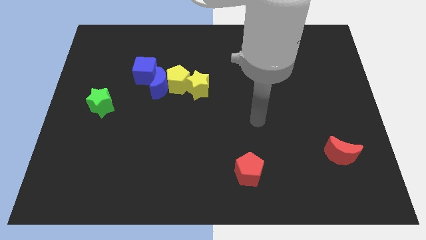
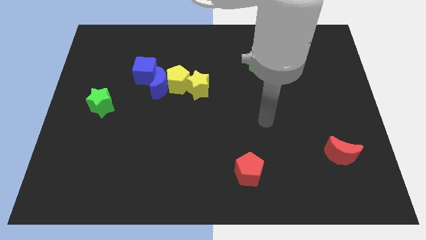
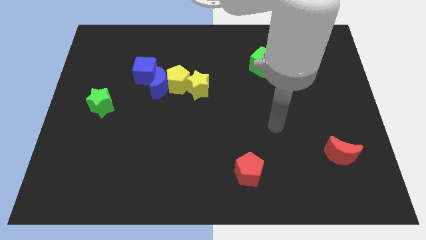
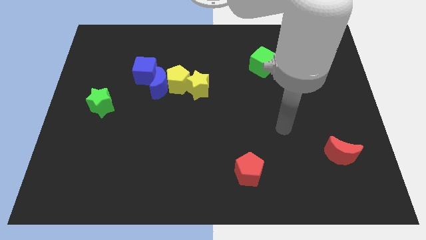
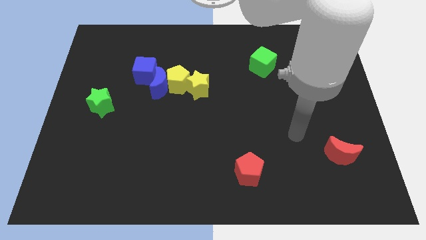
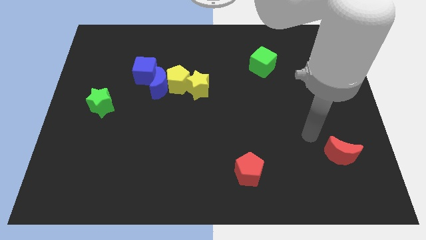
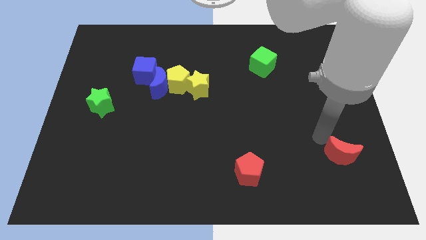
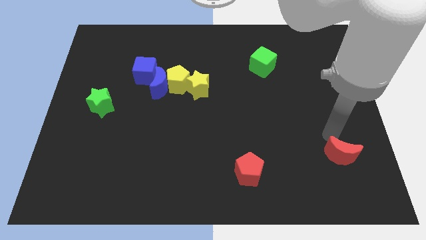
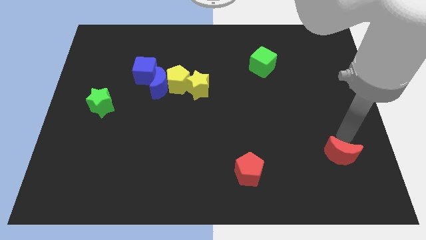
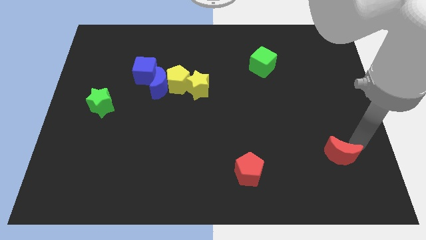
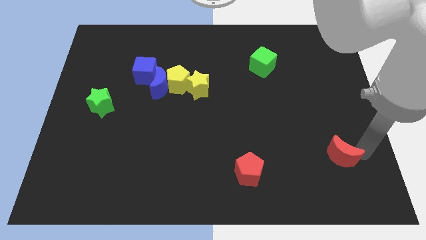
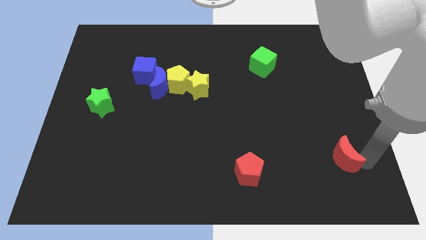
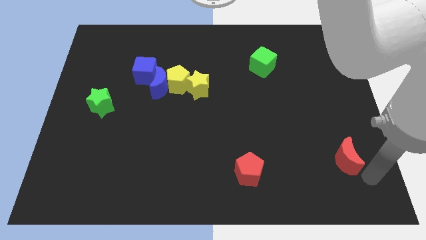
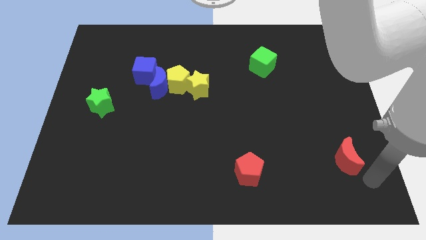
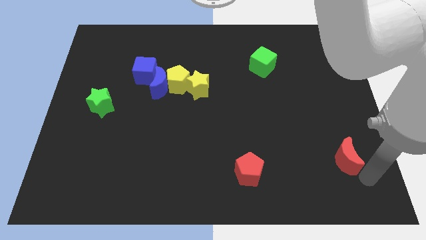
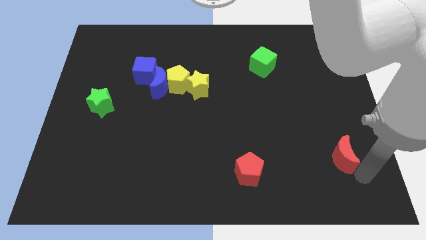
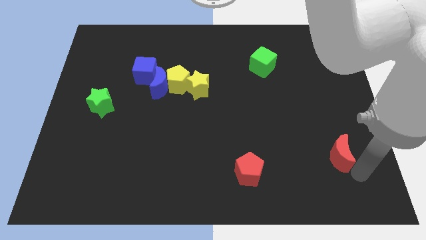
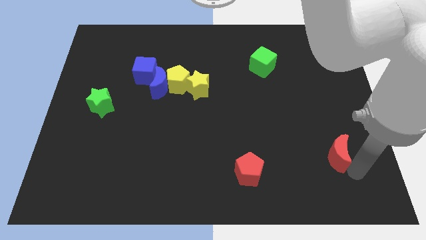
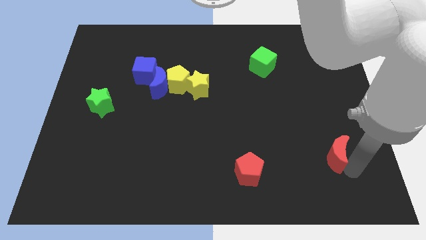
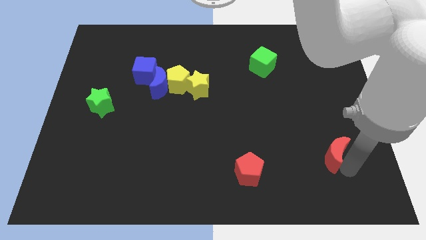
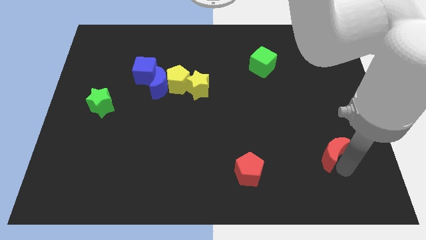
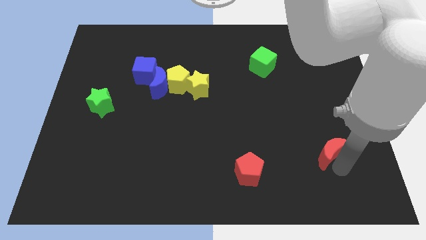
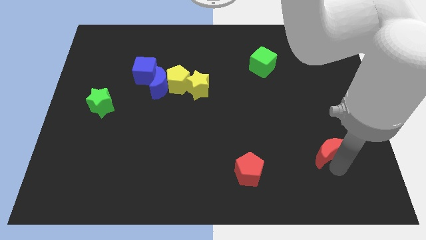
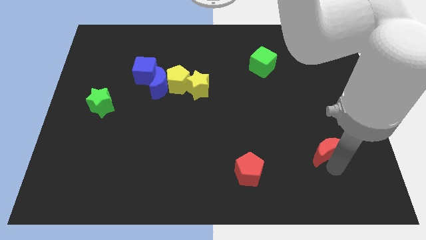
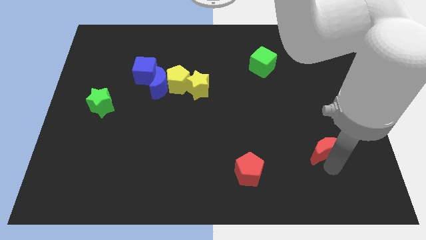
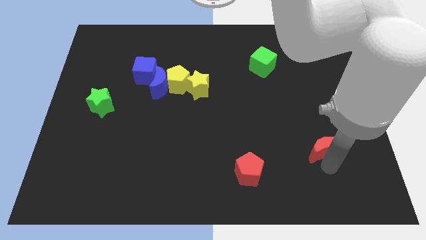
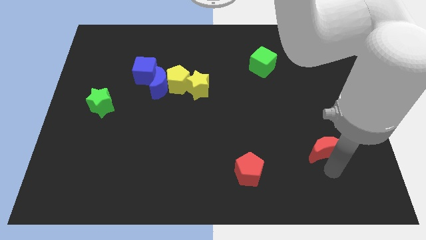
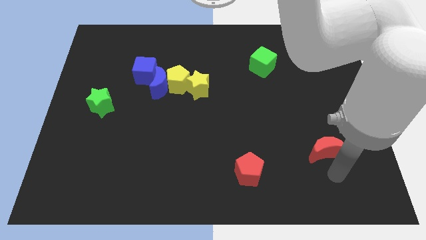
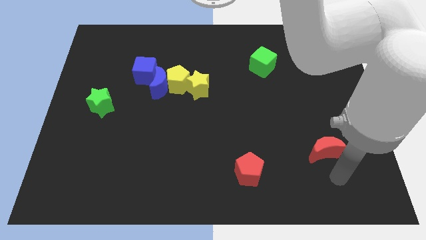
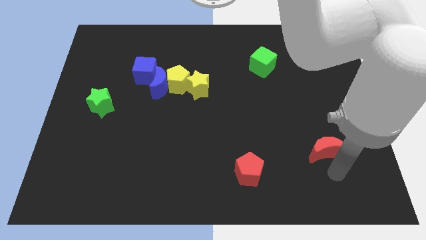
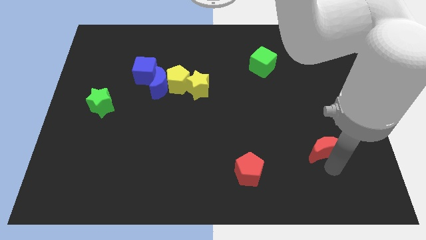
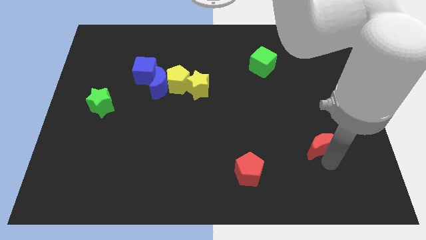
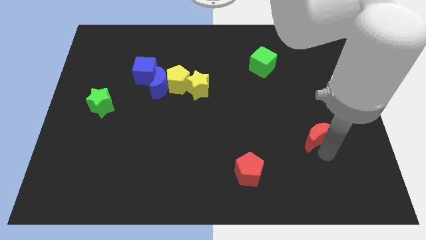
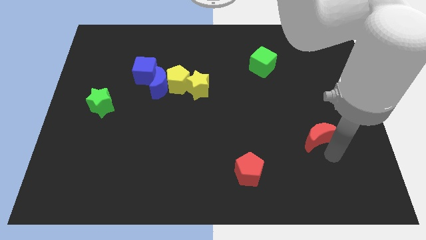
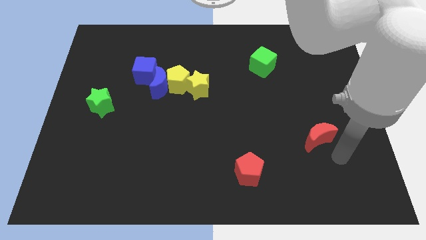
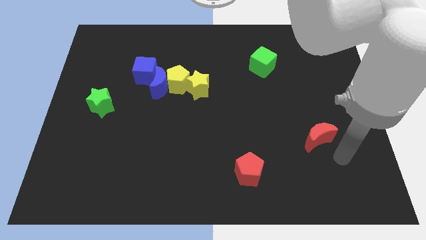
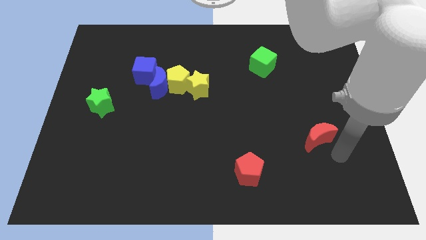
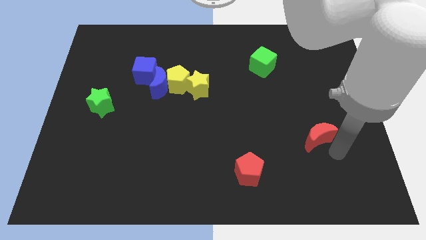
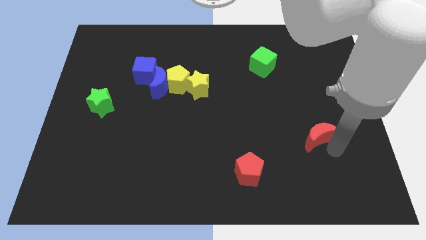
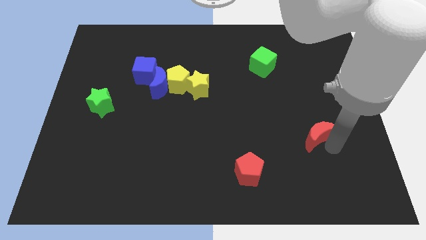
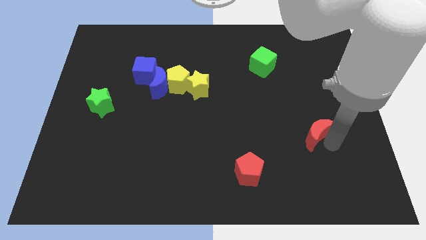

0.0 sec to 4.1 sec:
slide the red moon up and to the left diagonally slightly

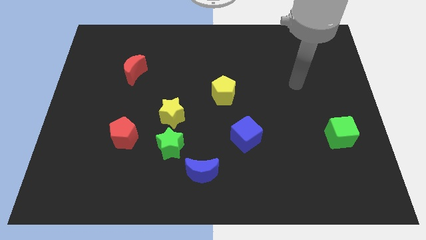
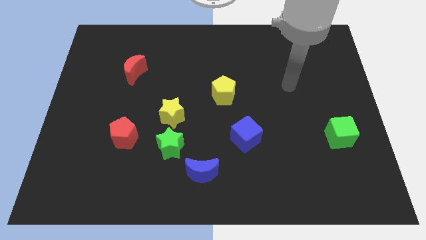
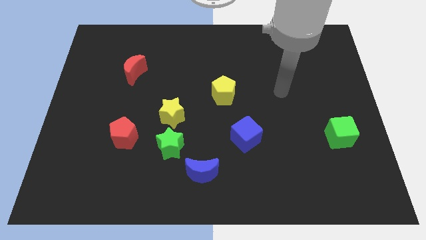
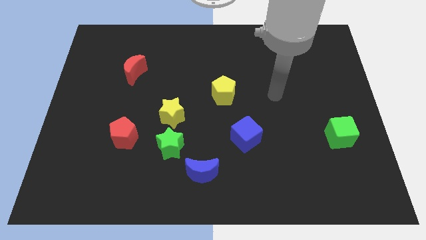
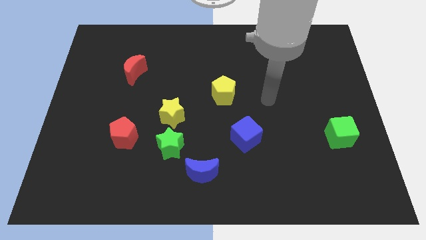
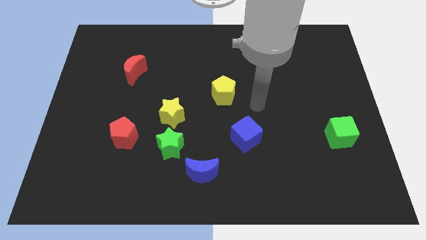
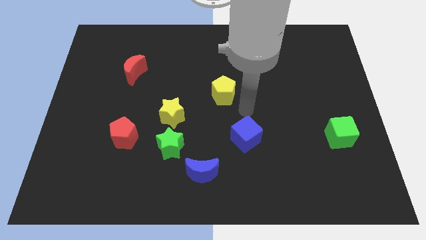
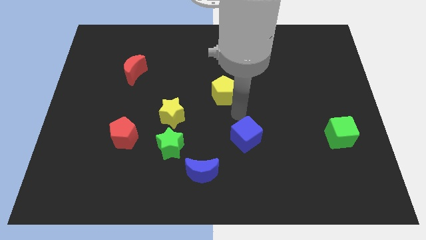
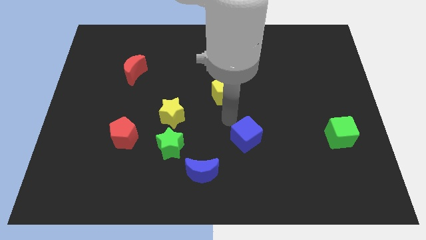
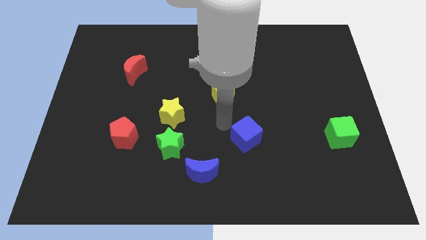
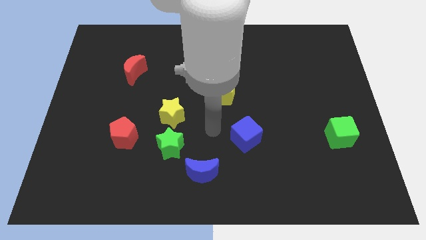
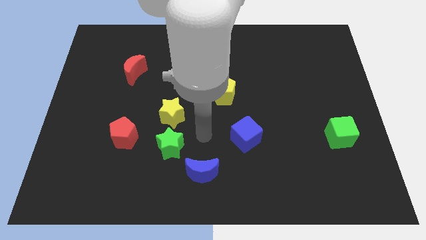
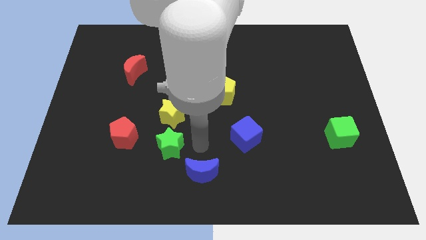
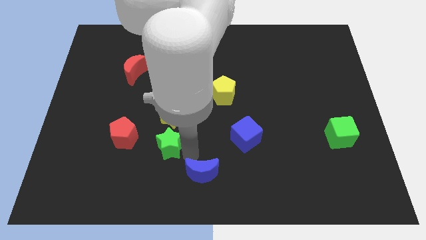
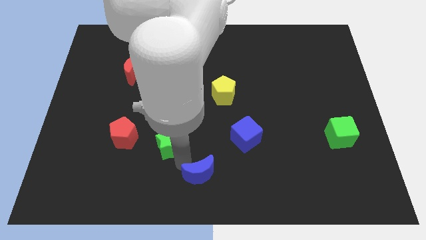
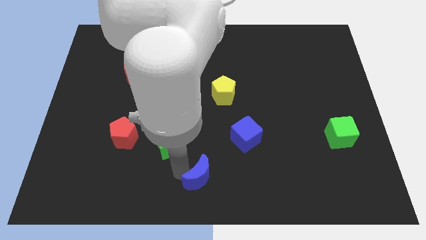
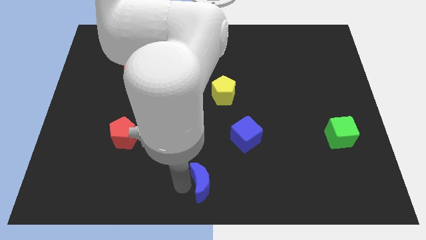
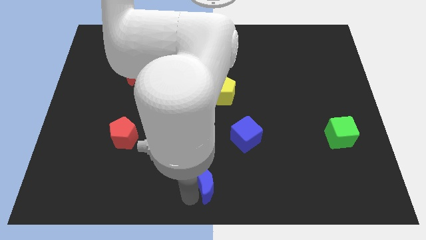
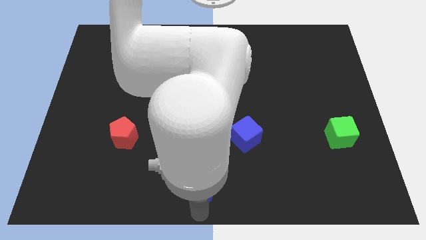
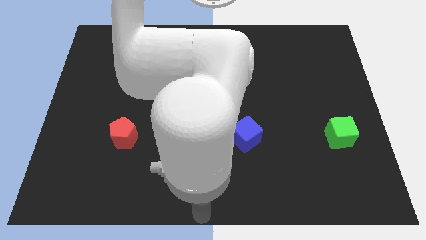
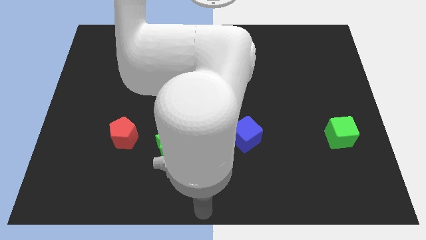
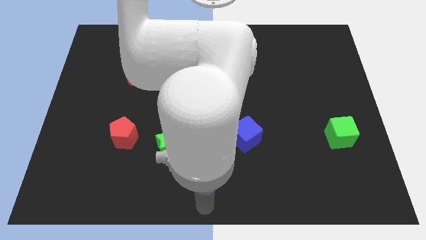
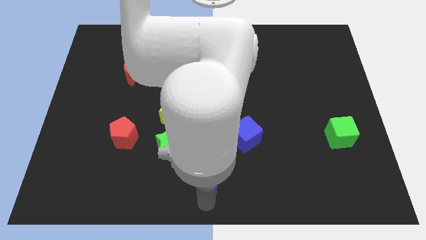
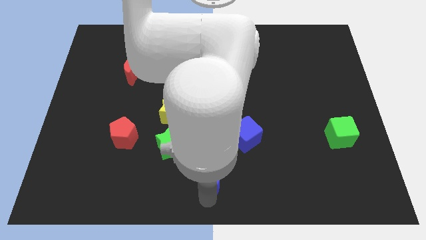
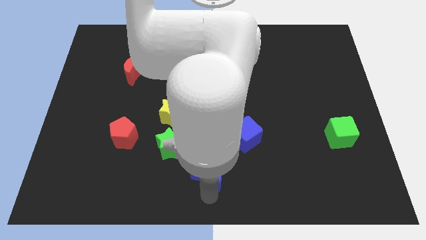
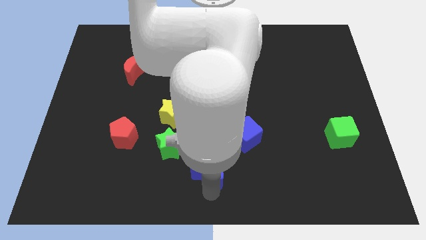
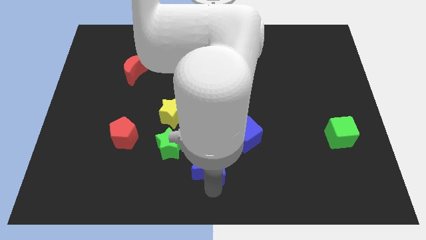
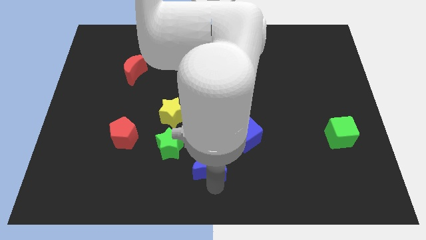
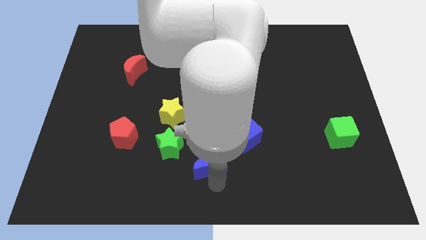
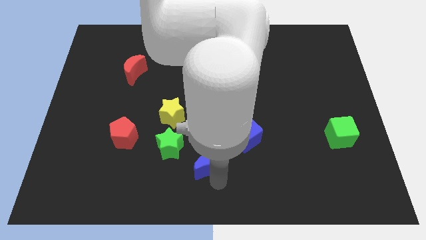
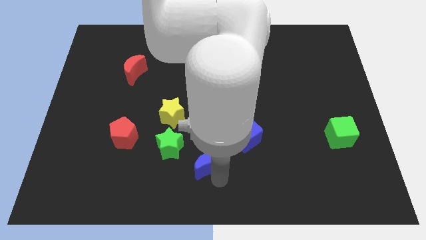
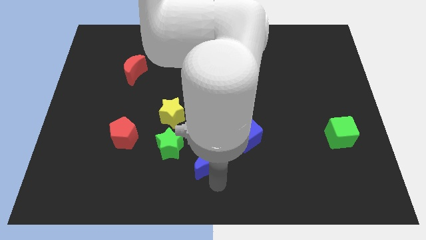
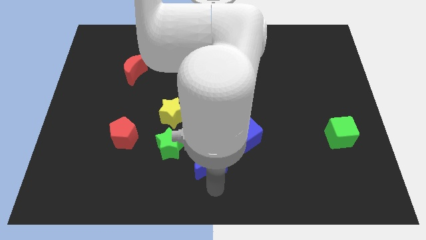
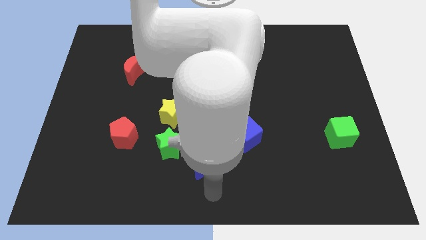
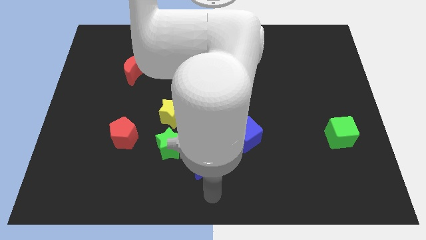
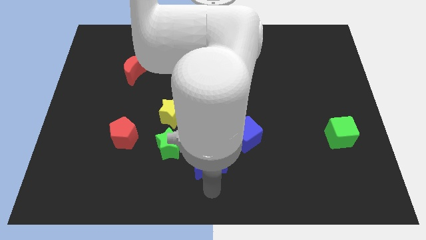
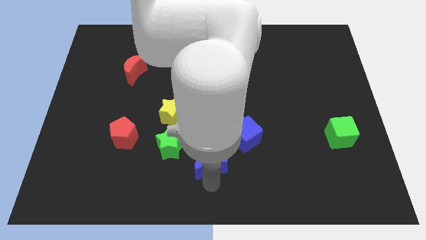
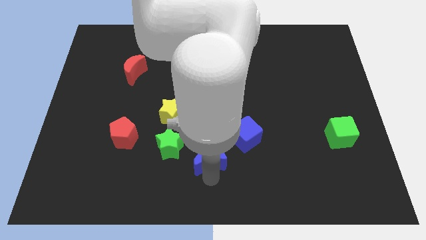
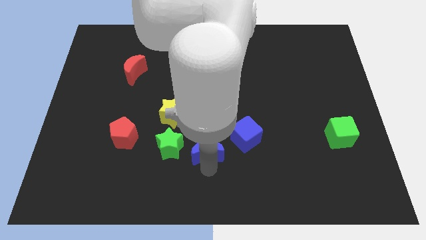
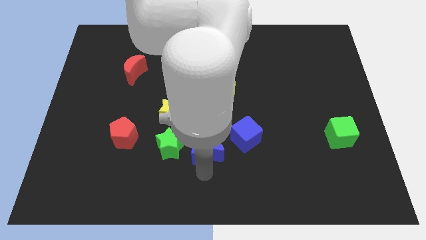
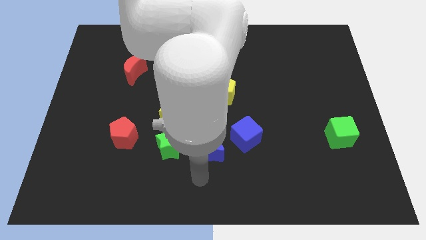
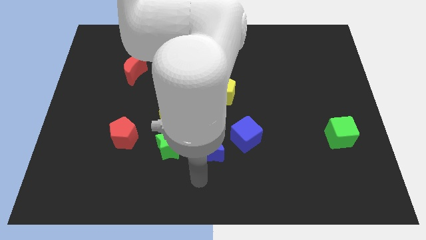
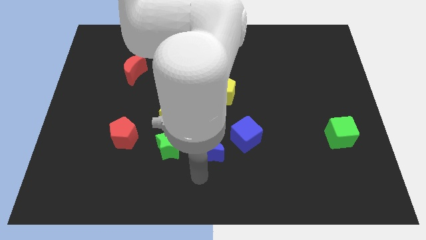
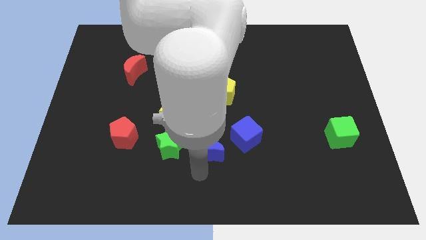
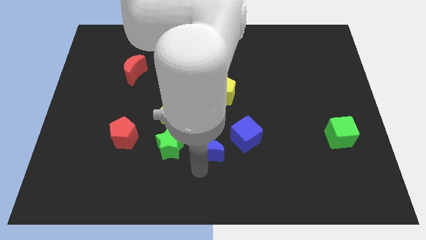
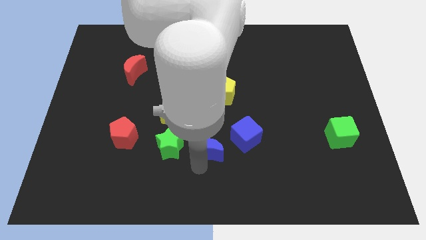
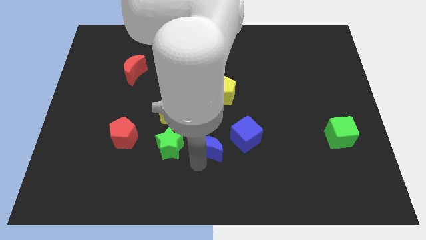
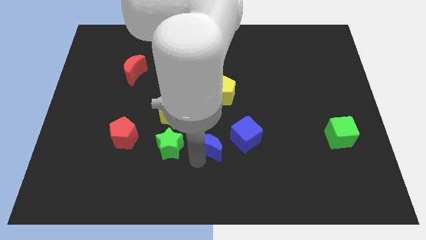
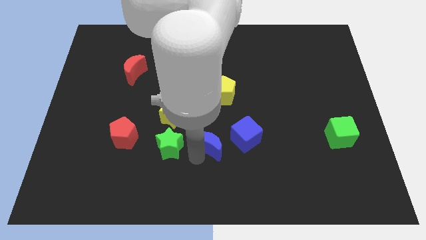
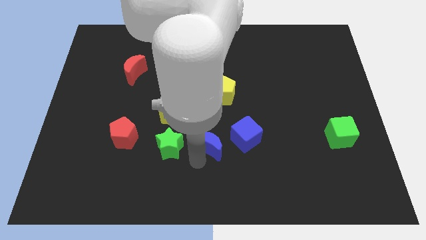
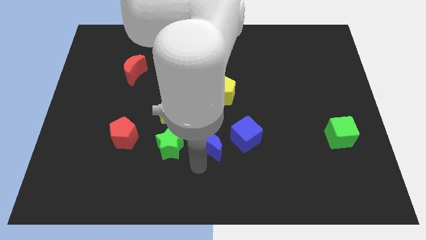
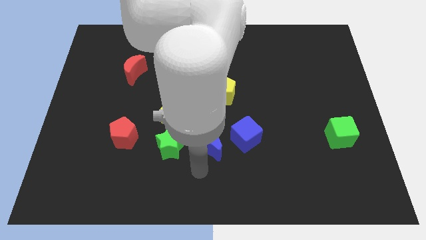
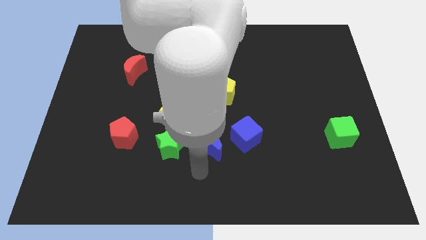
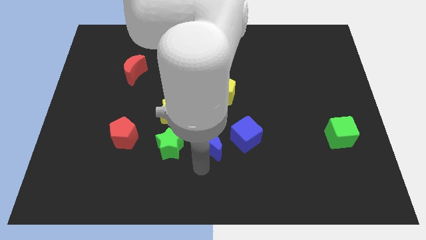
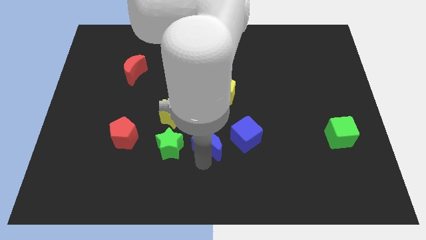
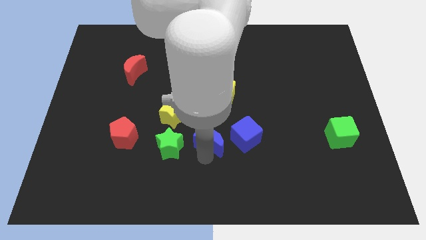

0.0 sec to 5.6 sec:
slightly move the blue moon upwards
